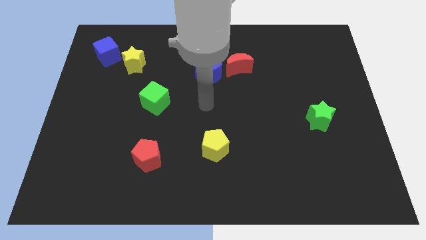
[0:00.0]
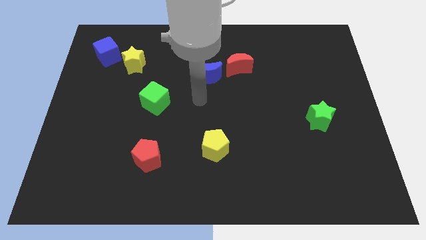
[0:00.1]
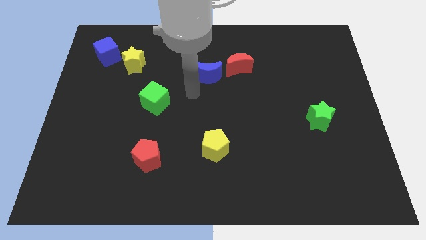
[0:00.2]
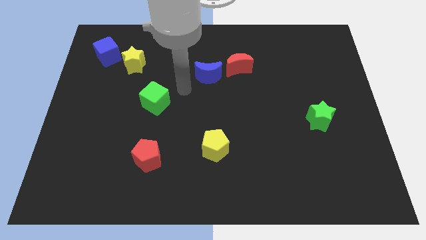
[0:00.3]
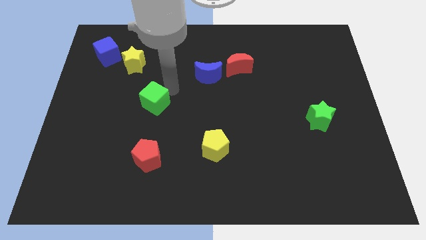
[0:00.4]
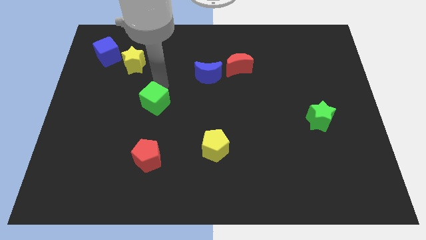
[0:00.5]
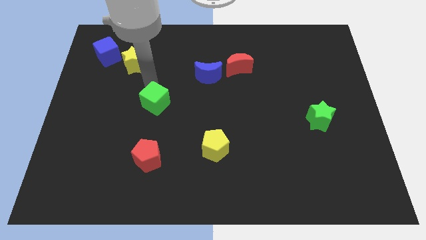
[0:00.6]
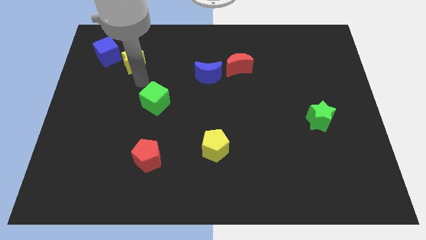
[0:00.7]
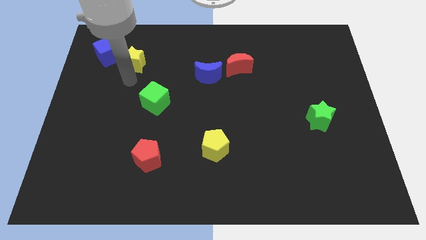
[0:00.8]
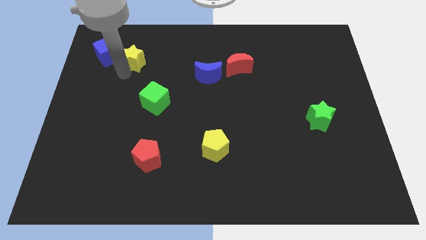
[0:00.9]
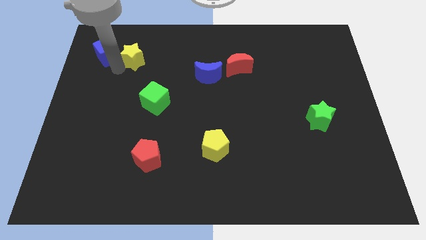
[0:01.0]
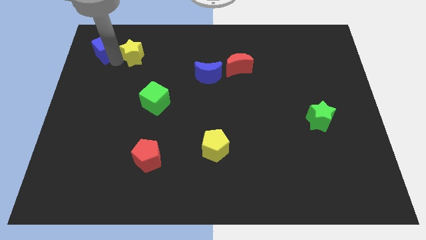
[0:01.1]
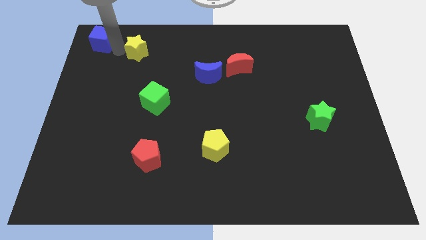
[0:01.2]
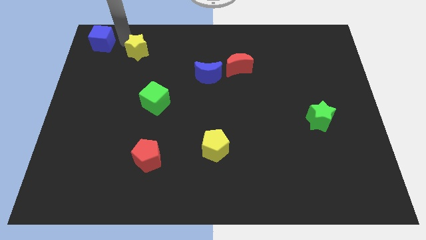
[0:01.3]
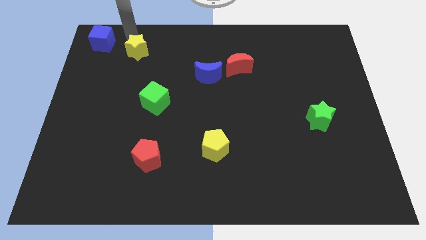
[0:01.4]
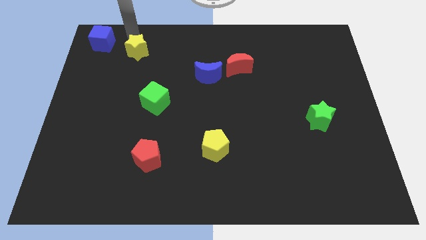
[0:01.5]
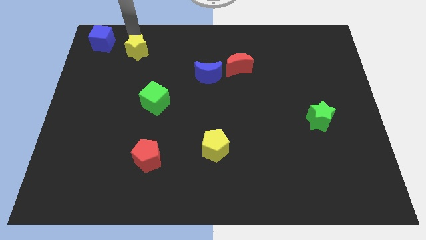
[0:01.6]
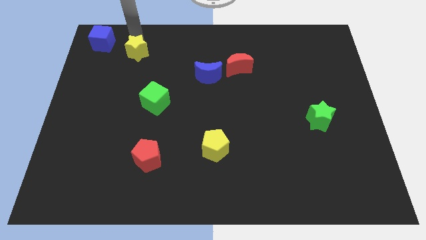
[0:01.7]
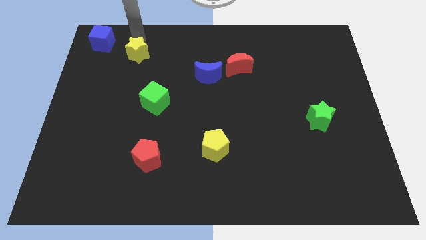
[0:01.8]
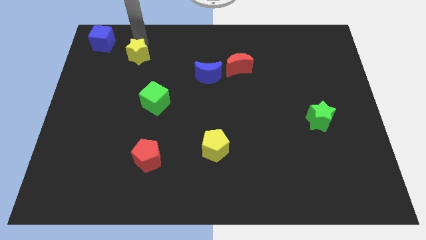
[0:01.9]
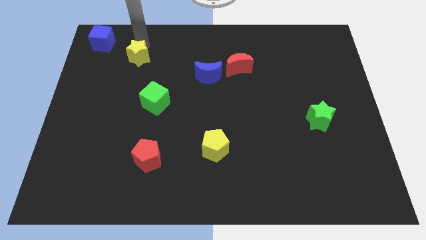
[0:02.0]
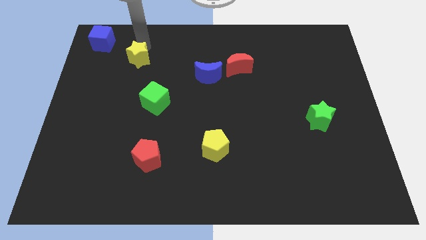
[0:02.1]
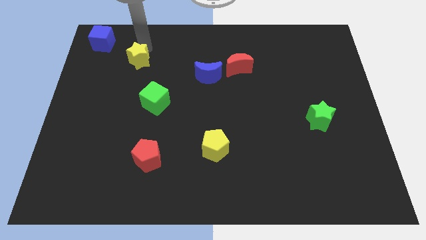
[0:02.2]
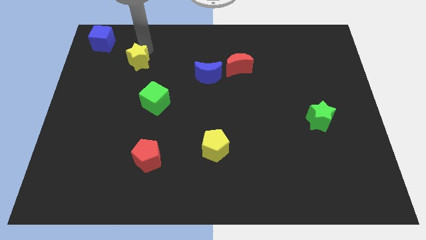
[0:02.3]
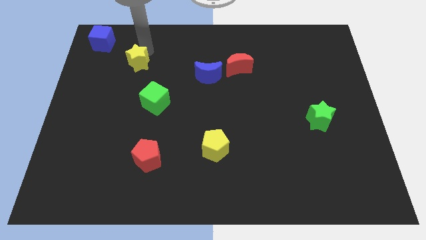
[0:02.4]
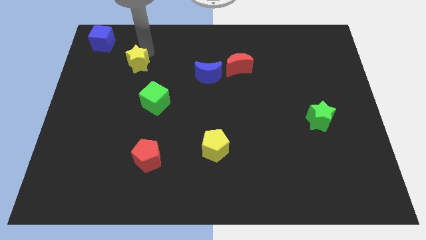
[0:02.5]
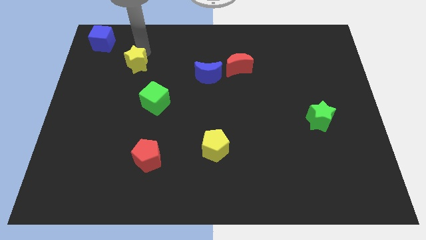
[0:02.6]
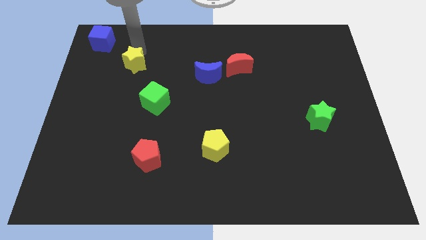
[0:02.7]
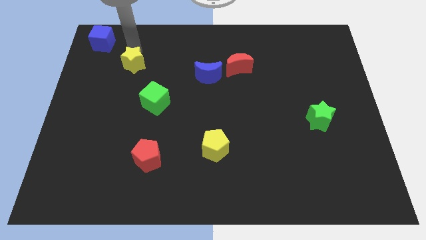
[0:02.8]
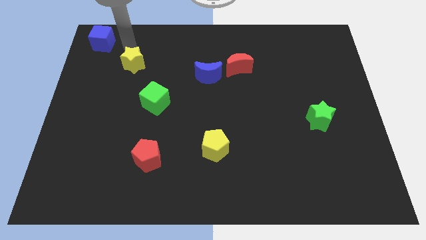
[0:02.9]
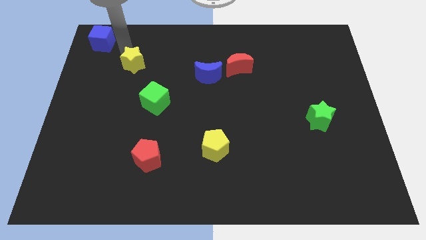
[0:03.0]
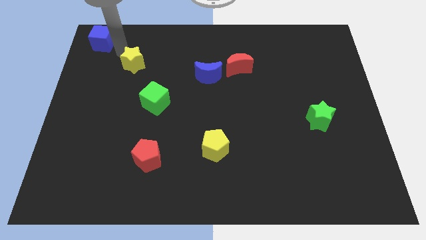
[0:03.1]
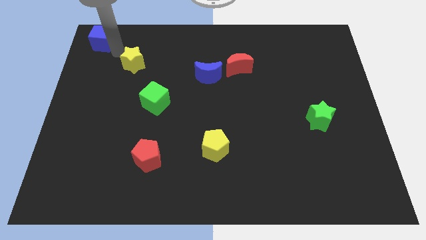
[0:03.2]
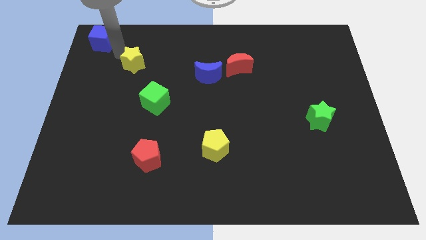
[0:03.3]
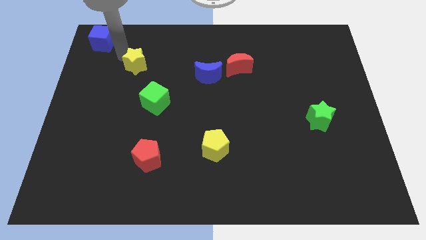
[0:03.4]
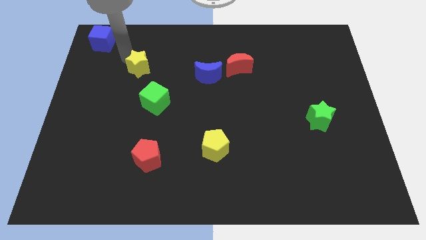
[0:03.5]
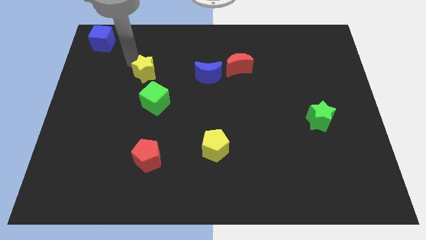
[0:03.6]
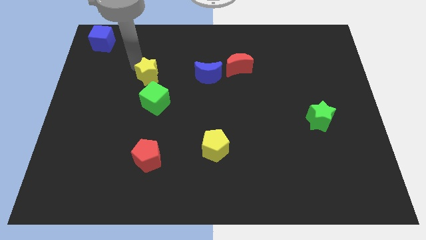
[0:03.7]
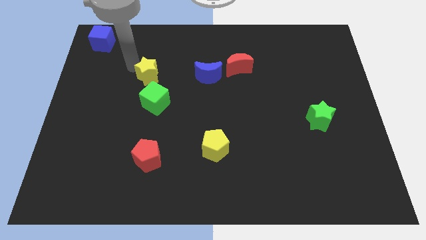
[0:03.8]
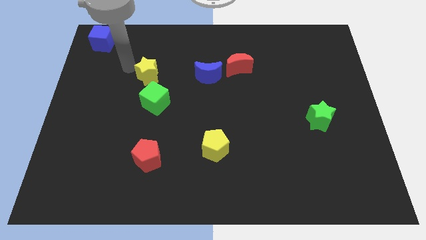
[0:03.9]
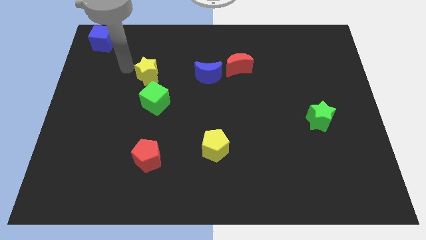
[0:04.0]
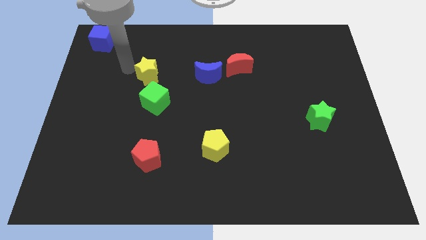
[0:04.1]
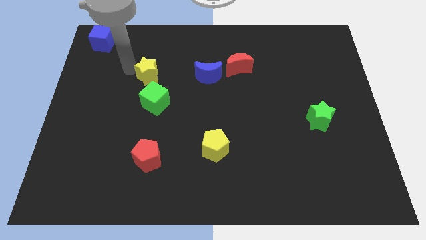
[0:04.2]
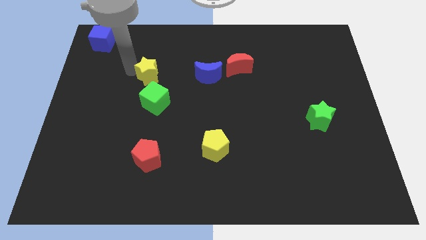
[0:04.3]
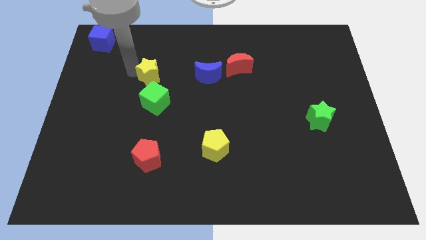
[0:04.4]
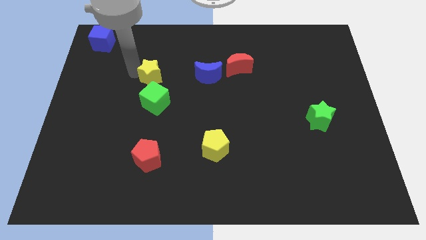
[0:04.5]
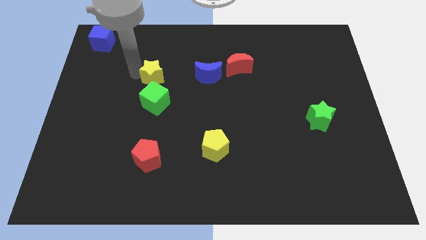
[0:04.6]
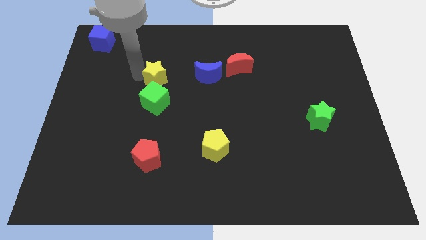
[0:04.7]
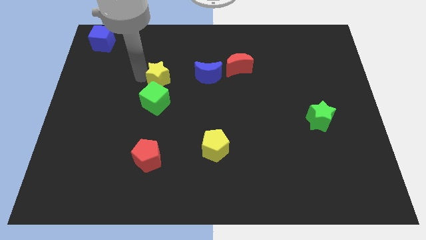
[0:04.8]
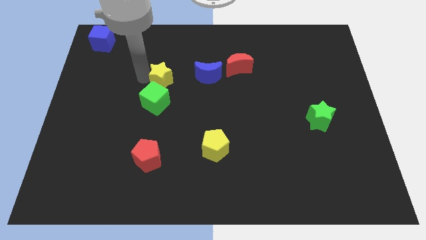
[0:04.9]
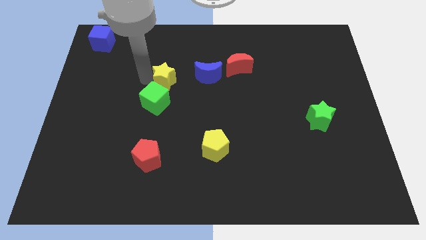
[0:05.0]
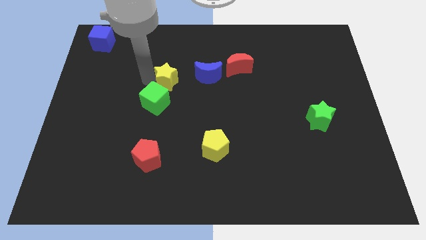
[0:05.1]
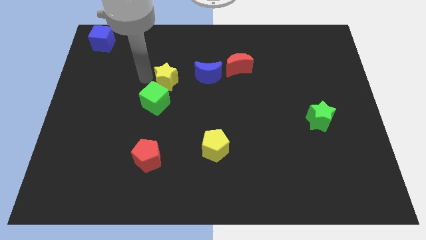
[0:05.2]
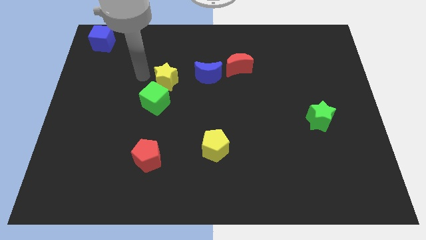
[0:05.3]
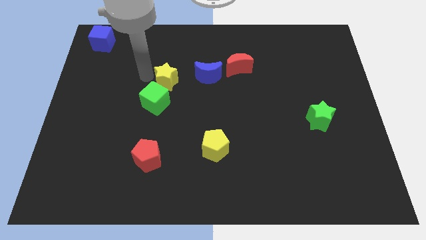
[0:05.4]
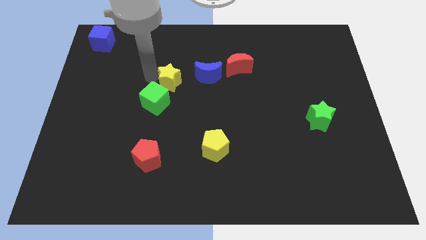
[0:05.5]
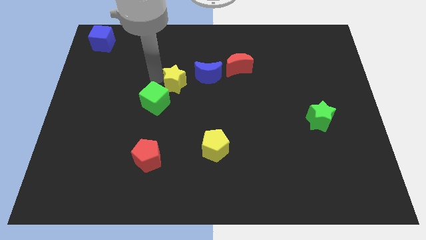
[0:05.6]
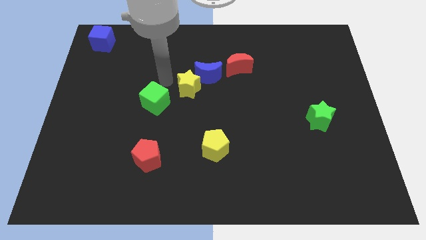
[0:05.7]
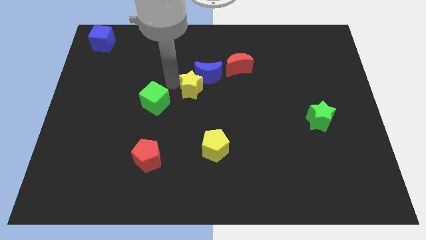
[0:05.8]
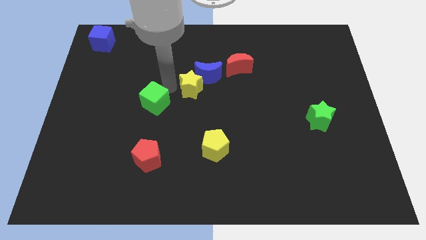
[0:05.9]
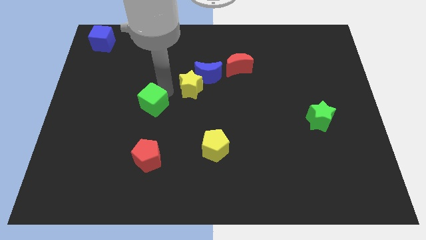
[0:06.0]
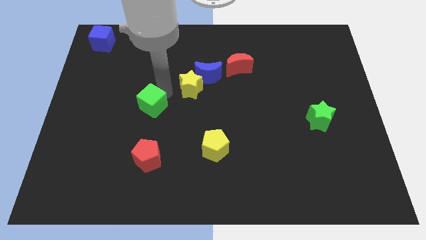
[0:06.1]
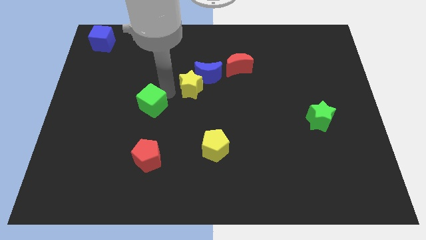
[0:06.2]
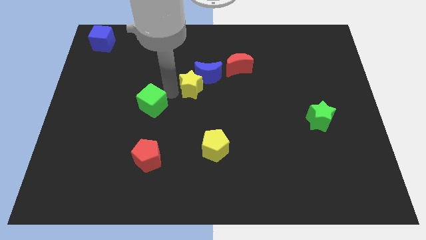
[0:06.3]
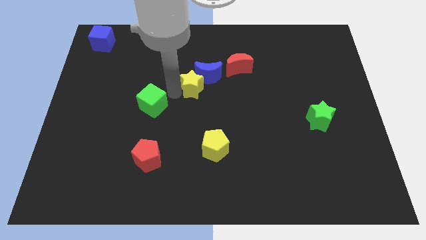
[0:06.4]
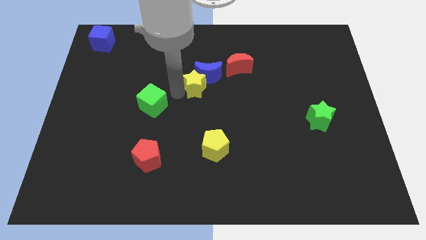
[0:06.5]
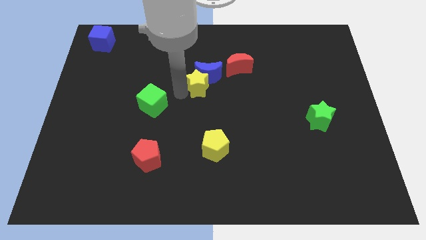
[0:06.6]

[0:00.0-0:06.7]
put the yellow star to the bottom left of the red moon
